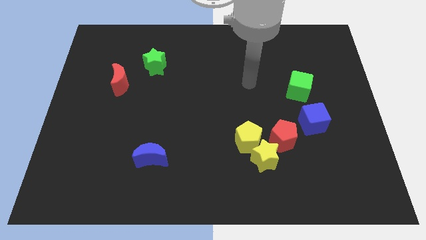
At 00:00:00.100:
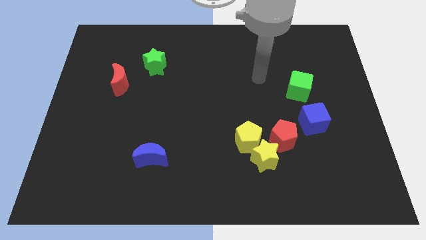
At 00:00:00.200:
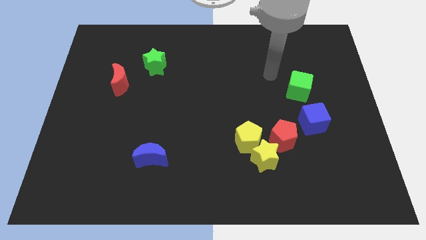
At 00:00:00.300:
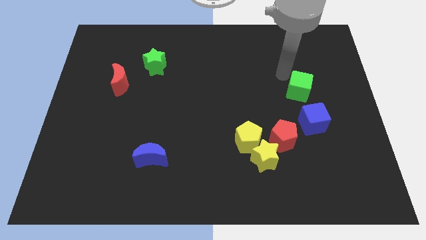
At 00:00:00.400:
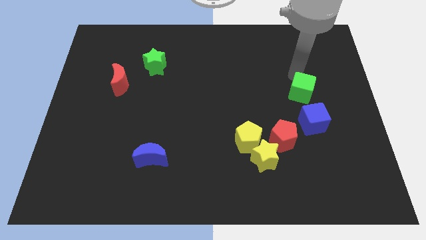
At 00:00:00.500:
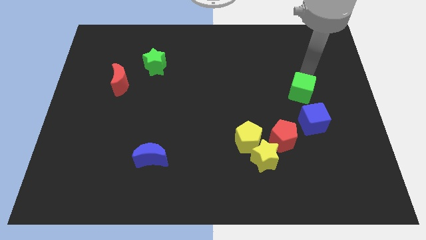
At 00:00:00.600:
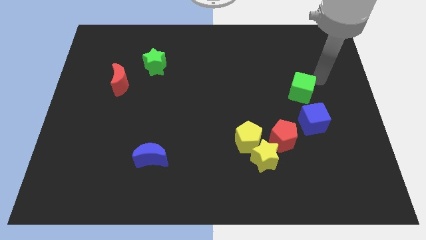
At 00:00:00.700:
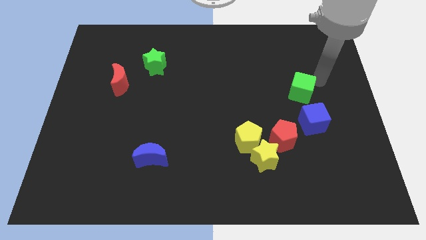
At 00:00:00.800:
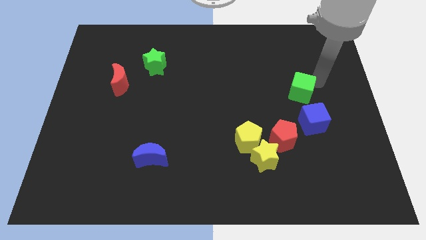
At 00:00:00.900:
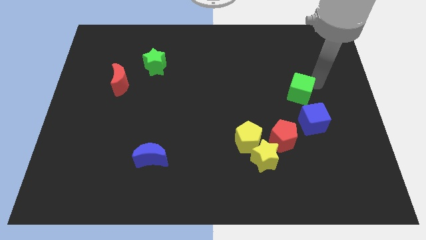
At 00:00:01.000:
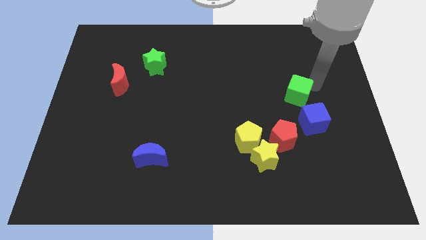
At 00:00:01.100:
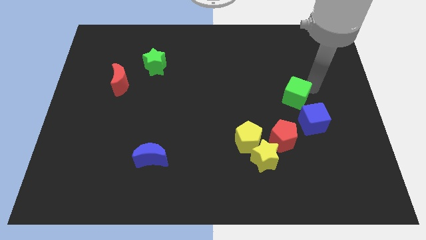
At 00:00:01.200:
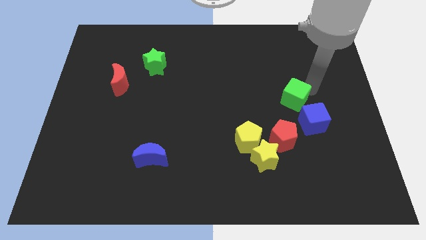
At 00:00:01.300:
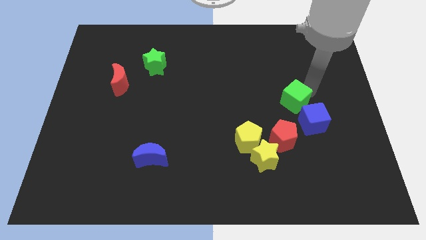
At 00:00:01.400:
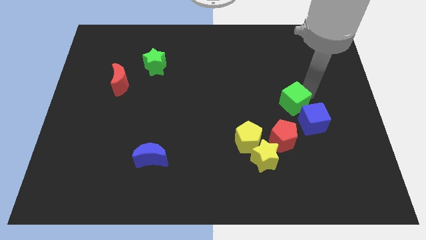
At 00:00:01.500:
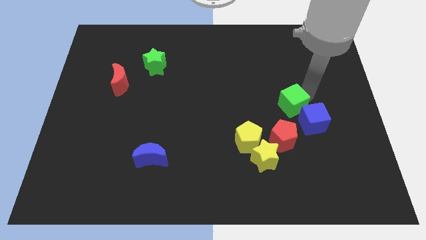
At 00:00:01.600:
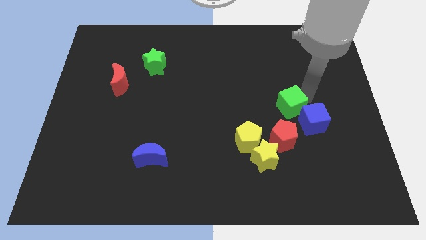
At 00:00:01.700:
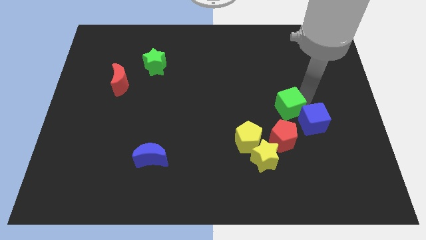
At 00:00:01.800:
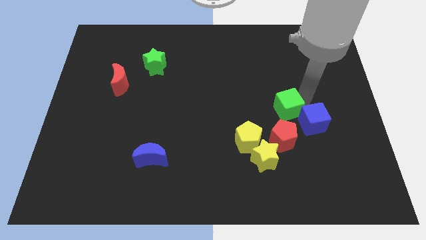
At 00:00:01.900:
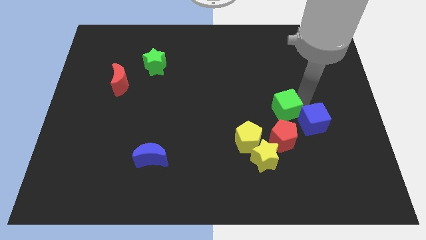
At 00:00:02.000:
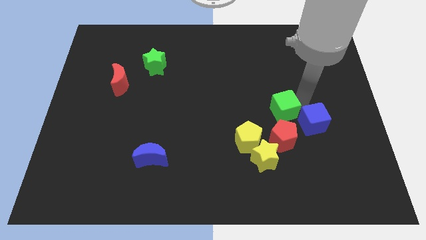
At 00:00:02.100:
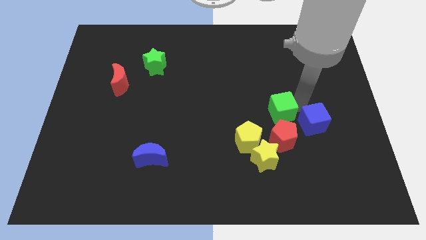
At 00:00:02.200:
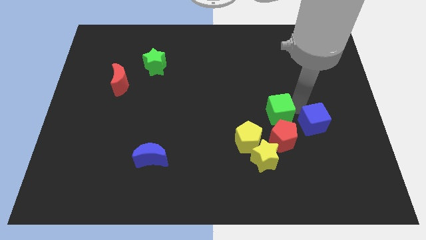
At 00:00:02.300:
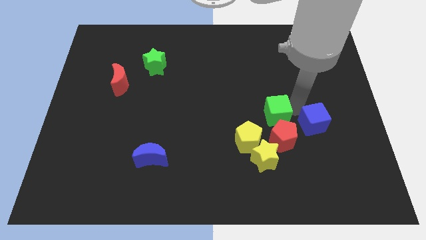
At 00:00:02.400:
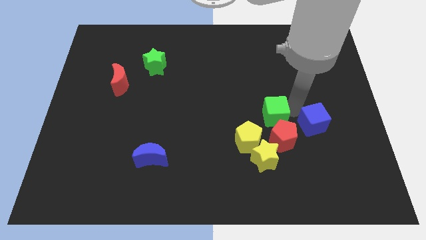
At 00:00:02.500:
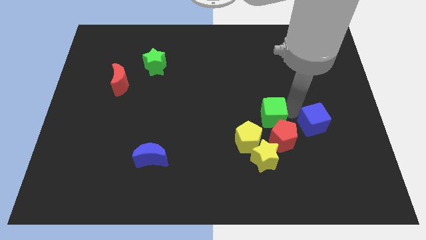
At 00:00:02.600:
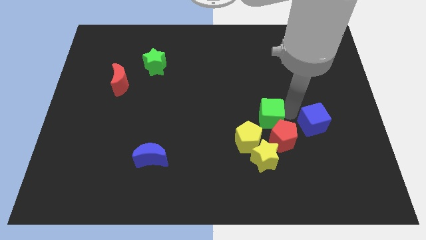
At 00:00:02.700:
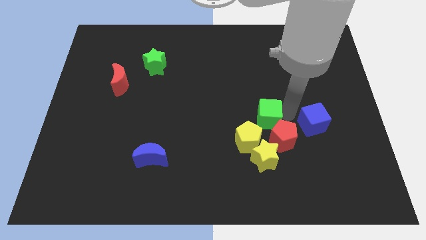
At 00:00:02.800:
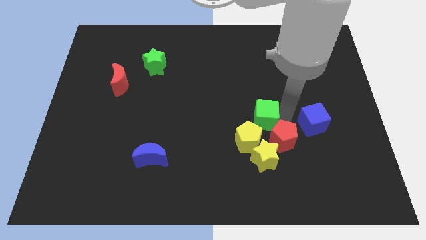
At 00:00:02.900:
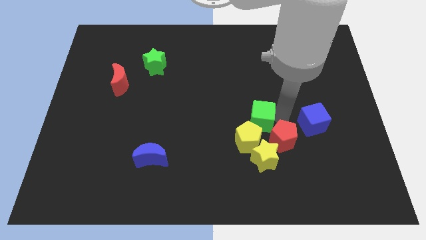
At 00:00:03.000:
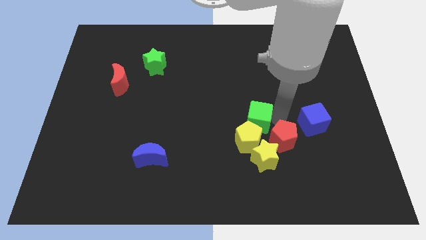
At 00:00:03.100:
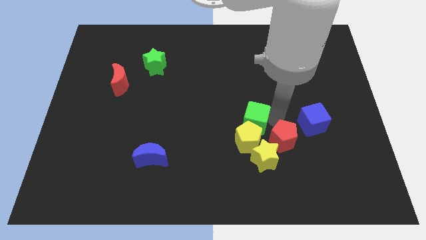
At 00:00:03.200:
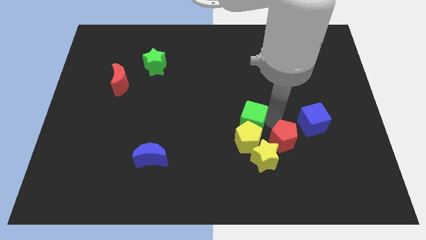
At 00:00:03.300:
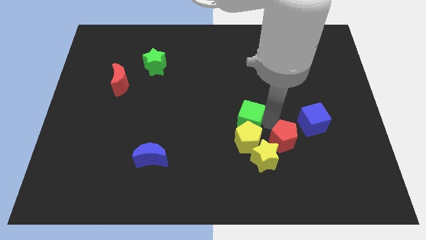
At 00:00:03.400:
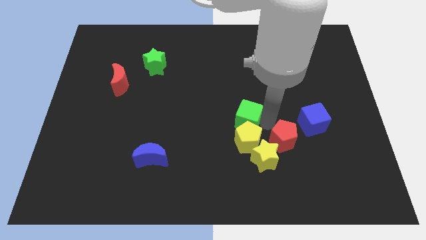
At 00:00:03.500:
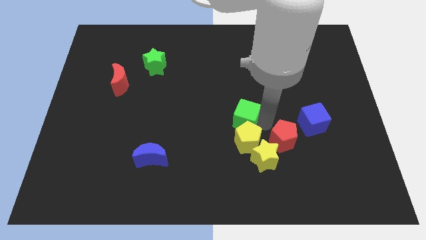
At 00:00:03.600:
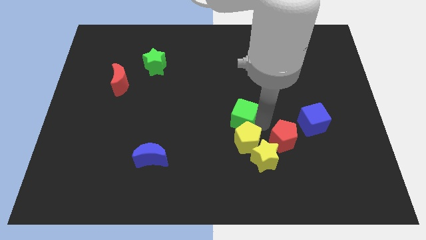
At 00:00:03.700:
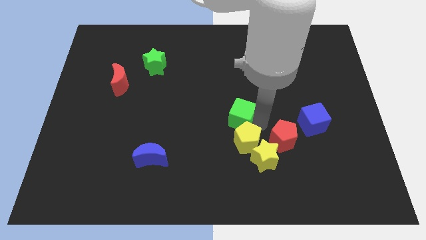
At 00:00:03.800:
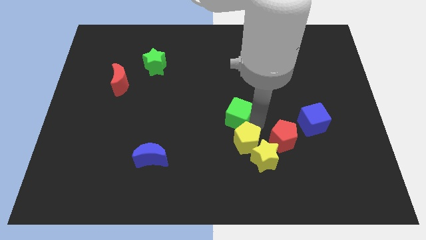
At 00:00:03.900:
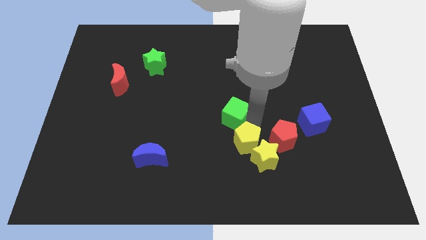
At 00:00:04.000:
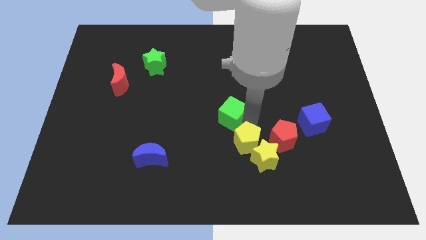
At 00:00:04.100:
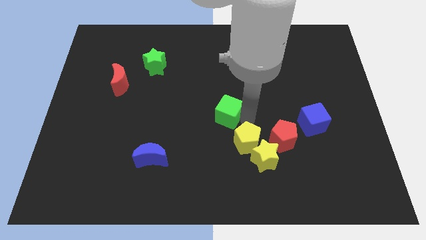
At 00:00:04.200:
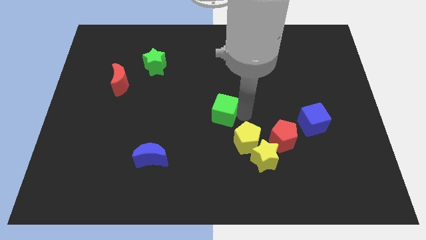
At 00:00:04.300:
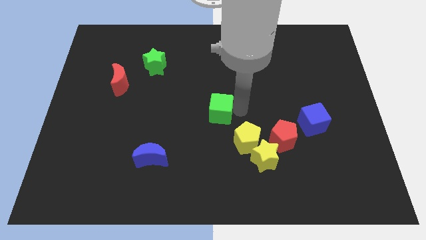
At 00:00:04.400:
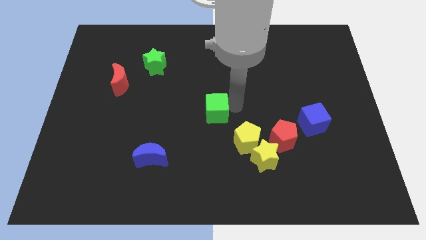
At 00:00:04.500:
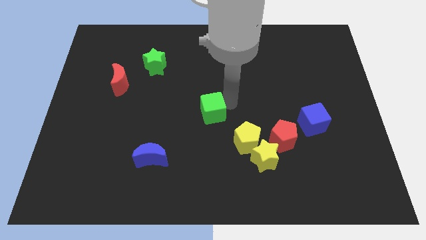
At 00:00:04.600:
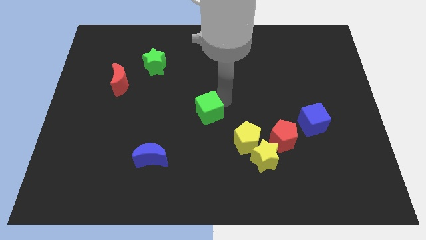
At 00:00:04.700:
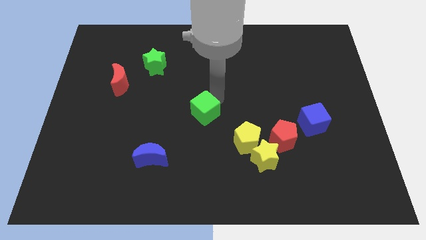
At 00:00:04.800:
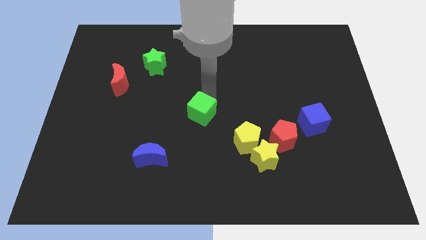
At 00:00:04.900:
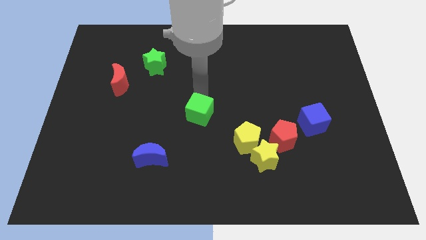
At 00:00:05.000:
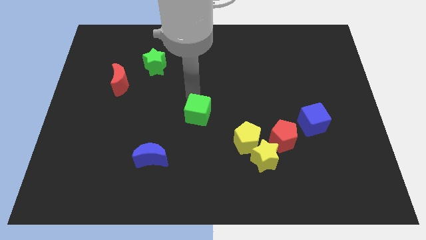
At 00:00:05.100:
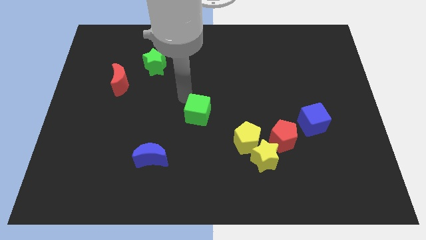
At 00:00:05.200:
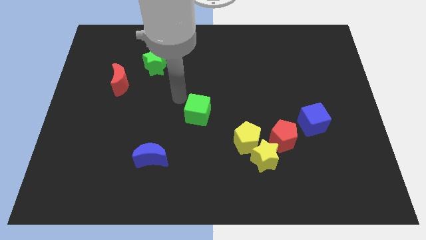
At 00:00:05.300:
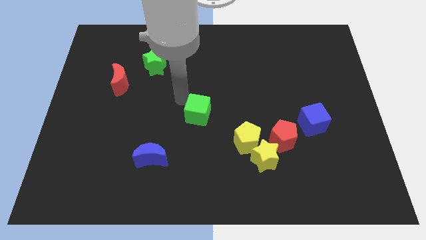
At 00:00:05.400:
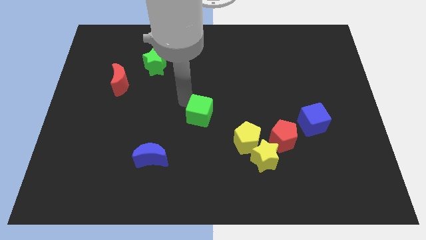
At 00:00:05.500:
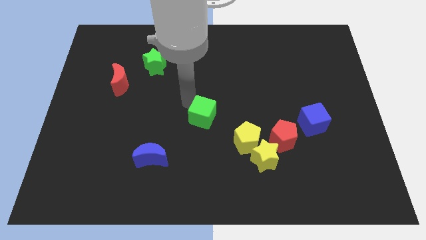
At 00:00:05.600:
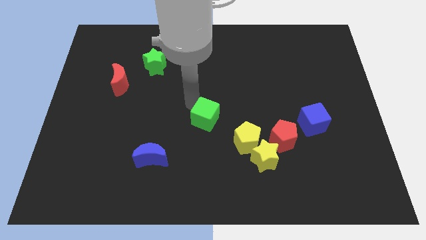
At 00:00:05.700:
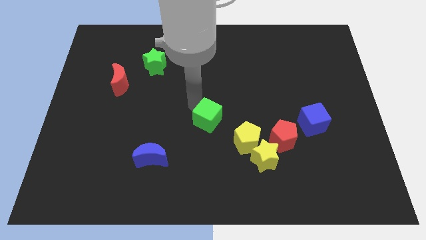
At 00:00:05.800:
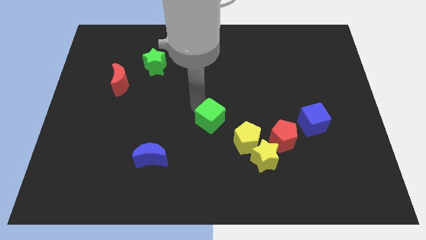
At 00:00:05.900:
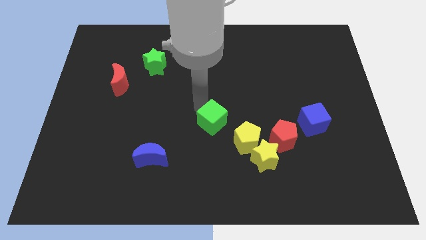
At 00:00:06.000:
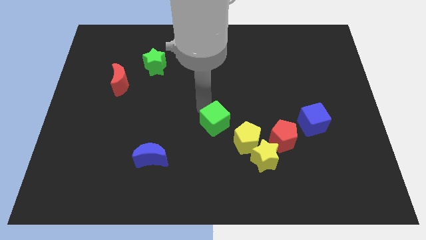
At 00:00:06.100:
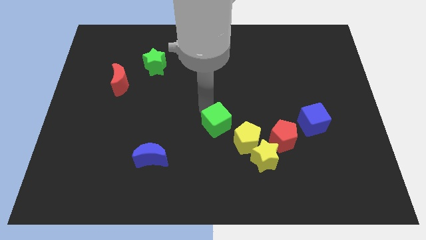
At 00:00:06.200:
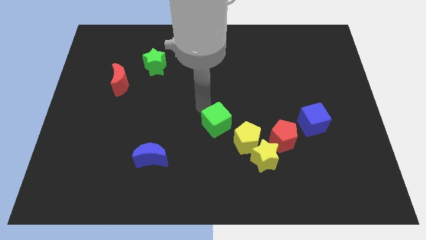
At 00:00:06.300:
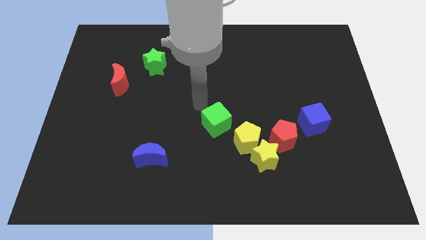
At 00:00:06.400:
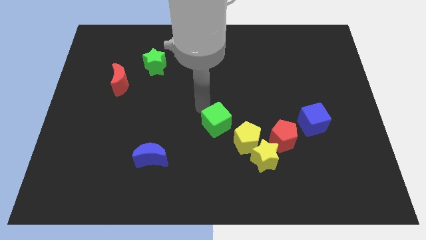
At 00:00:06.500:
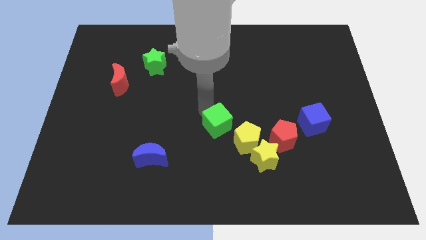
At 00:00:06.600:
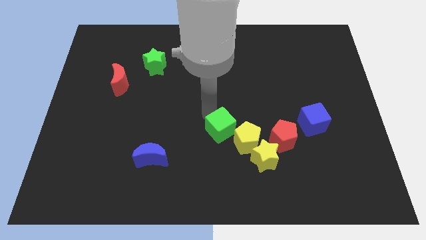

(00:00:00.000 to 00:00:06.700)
move the green cube down and left

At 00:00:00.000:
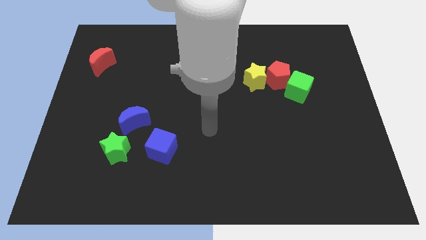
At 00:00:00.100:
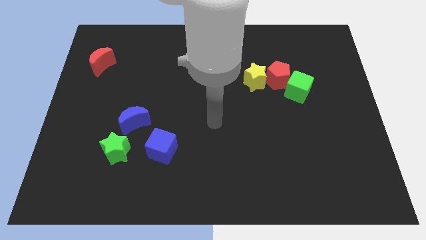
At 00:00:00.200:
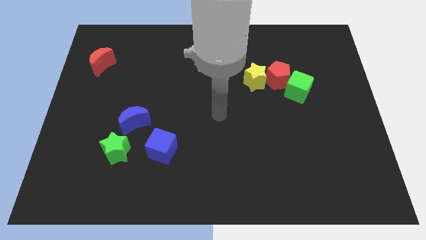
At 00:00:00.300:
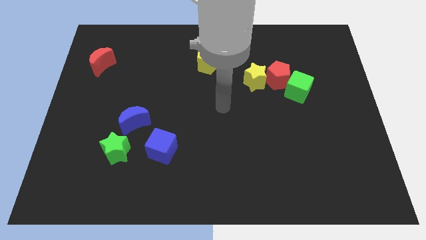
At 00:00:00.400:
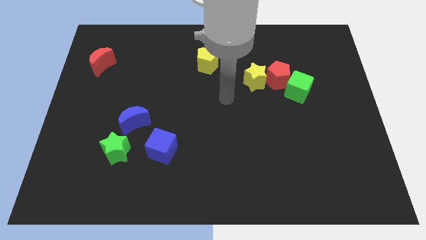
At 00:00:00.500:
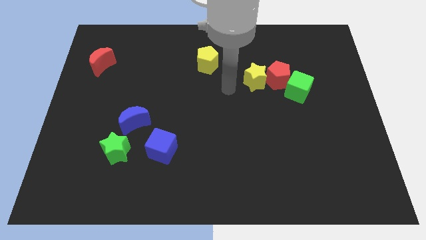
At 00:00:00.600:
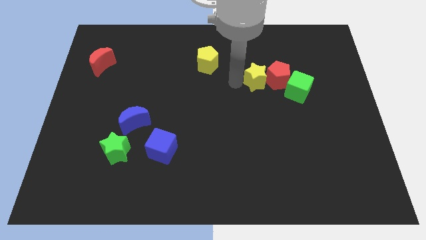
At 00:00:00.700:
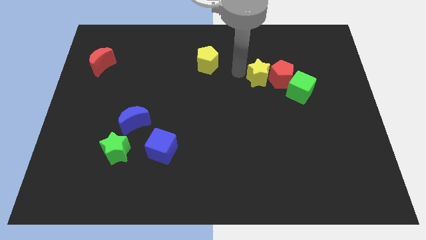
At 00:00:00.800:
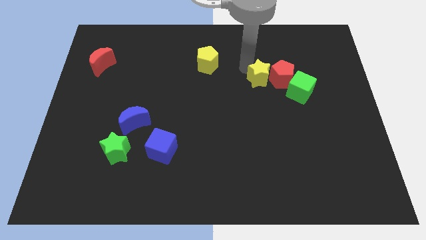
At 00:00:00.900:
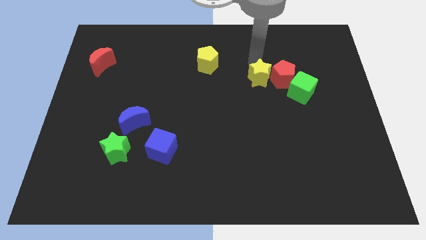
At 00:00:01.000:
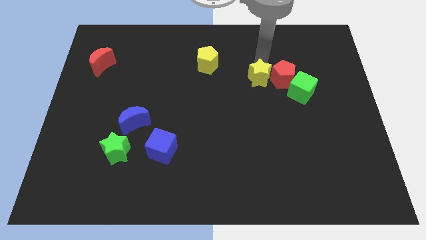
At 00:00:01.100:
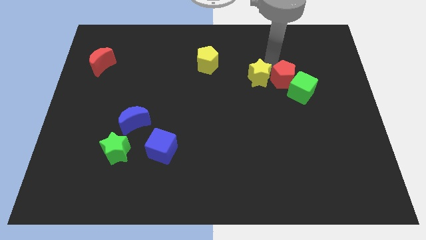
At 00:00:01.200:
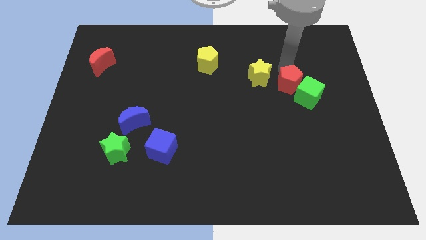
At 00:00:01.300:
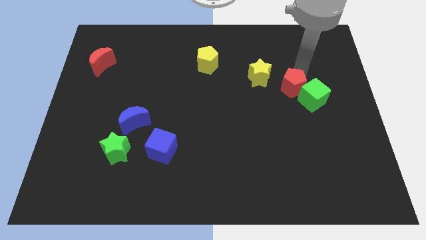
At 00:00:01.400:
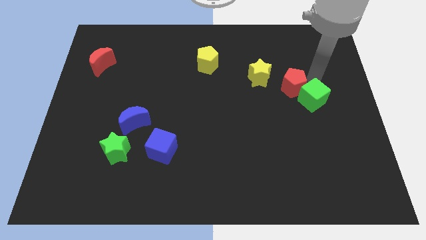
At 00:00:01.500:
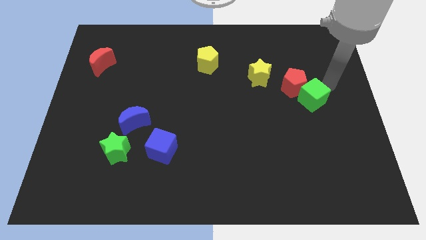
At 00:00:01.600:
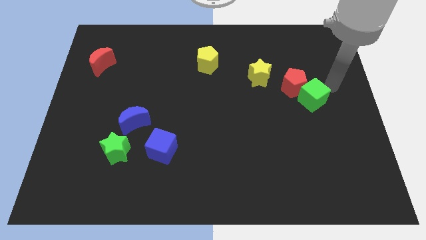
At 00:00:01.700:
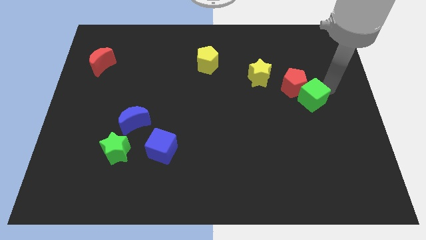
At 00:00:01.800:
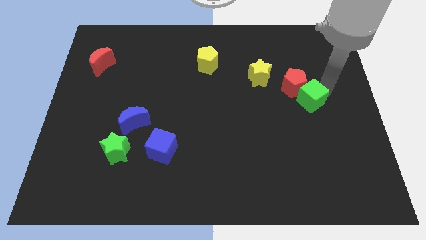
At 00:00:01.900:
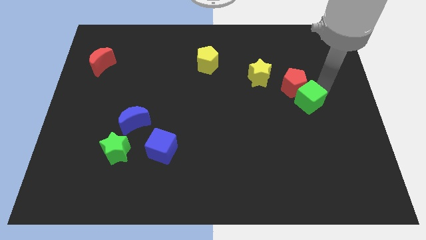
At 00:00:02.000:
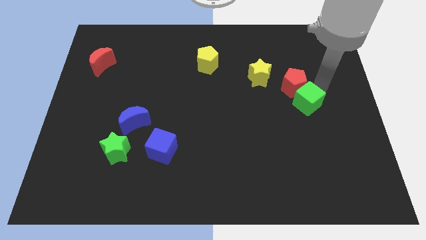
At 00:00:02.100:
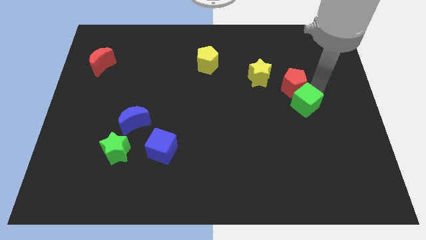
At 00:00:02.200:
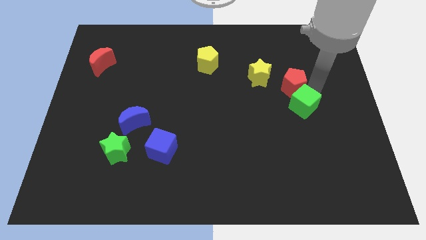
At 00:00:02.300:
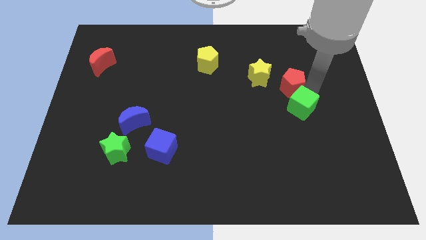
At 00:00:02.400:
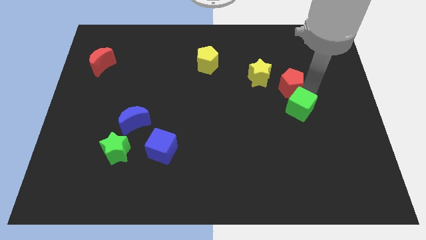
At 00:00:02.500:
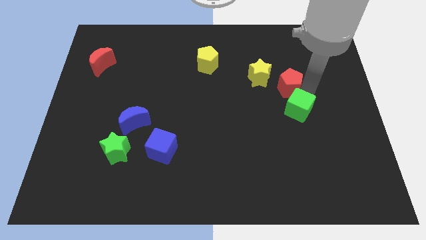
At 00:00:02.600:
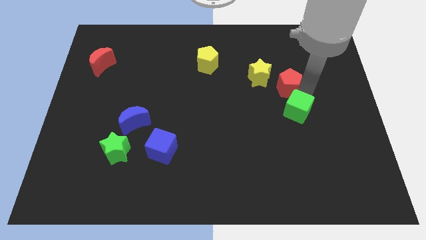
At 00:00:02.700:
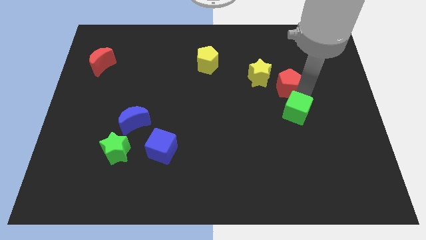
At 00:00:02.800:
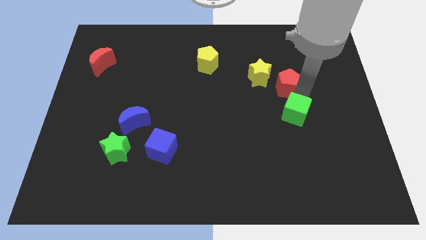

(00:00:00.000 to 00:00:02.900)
move the green cube downwards a little bit
